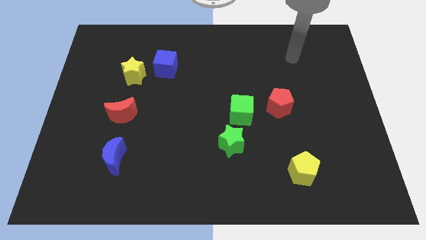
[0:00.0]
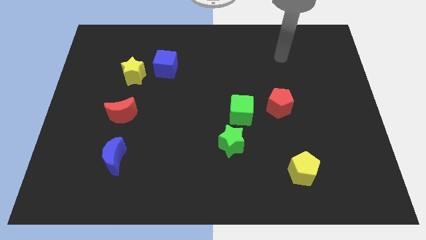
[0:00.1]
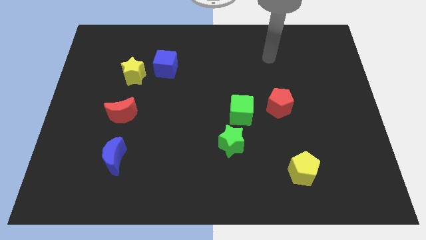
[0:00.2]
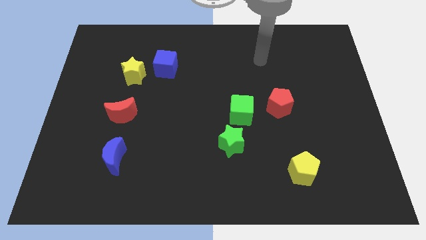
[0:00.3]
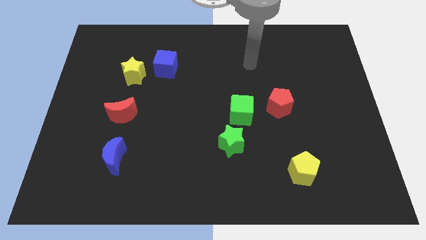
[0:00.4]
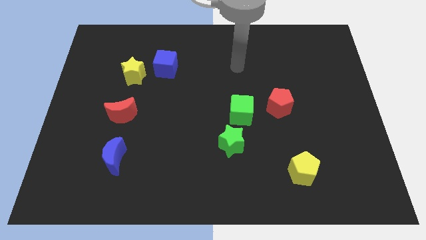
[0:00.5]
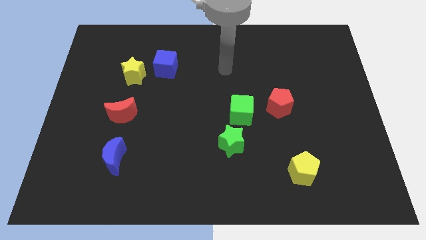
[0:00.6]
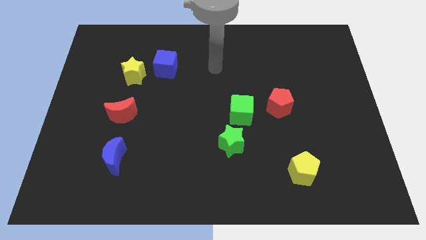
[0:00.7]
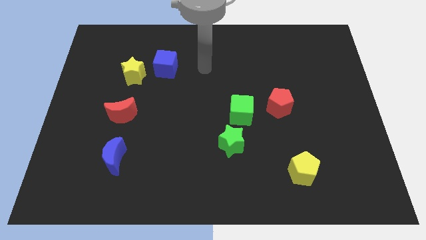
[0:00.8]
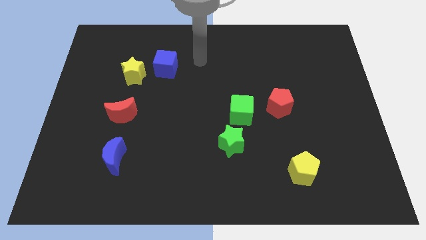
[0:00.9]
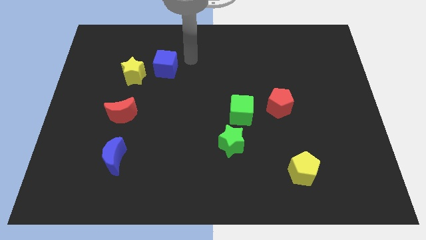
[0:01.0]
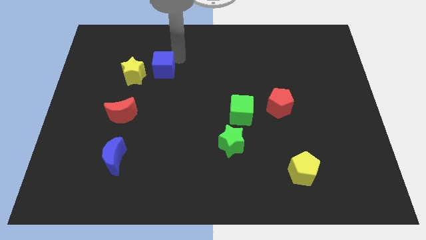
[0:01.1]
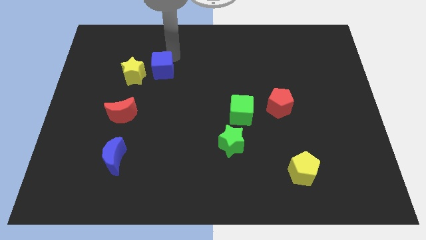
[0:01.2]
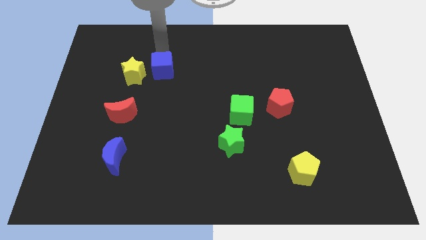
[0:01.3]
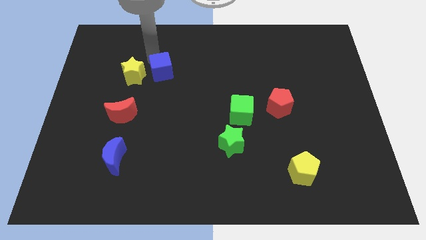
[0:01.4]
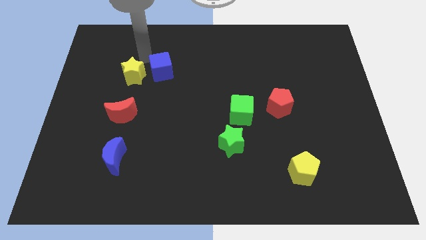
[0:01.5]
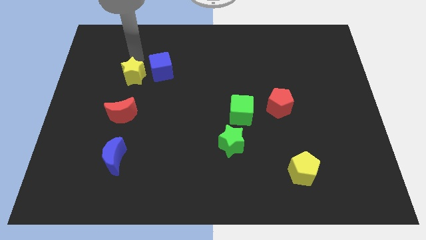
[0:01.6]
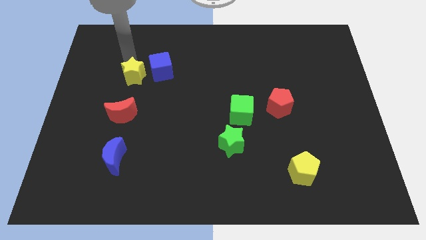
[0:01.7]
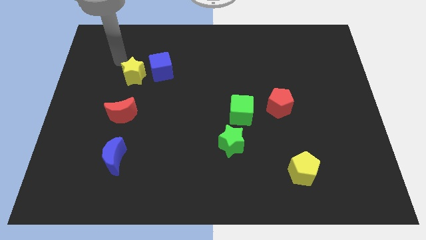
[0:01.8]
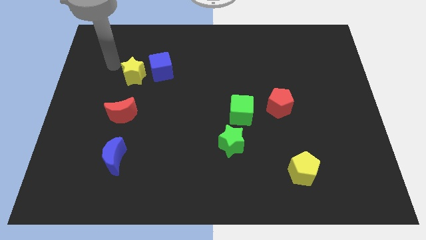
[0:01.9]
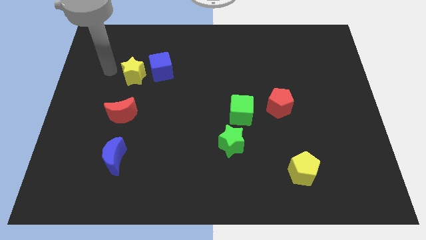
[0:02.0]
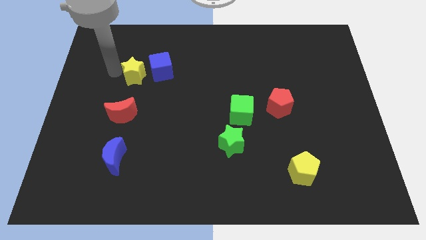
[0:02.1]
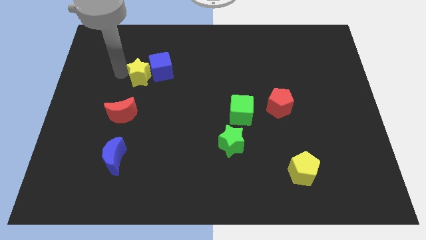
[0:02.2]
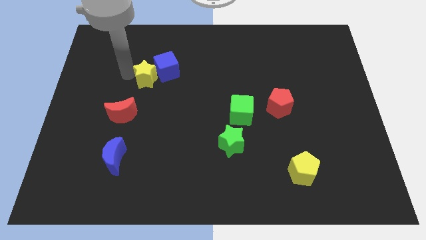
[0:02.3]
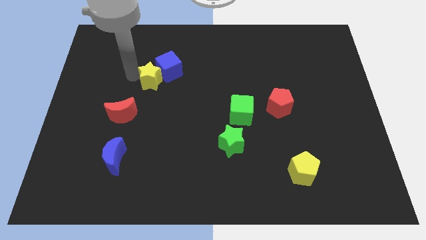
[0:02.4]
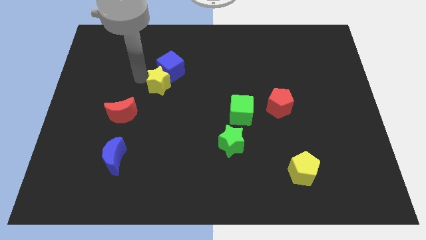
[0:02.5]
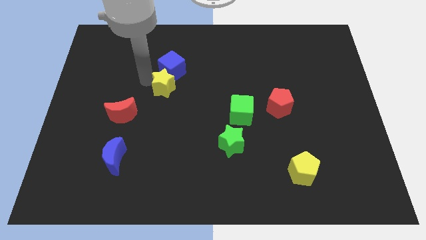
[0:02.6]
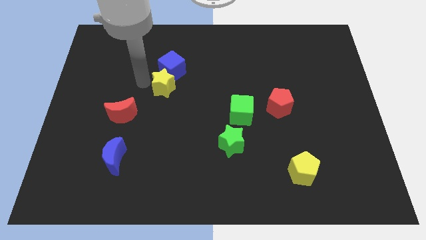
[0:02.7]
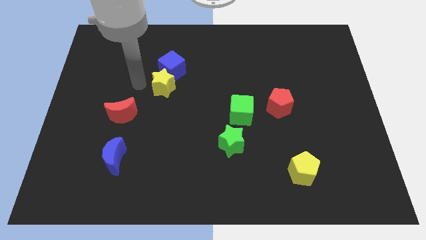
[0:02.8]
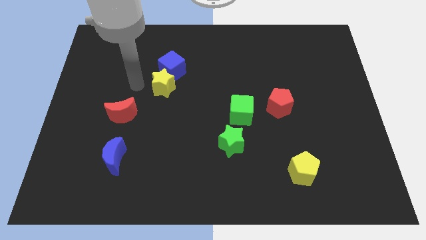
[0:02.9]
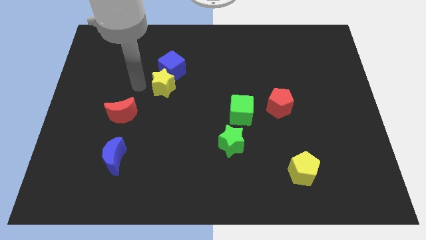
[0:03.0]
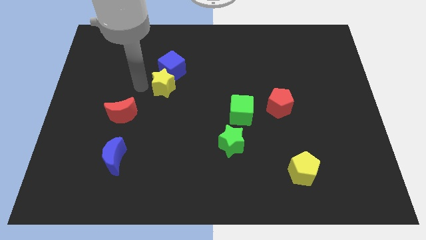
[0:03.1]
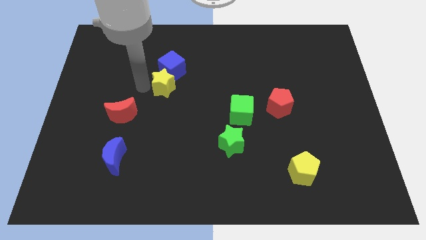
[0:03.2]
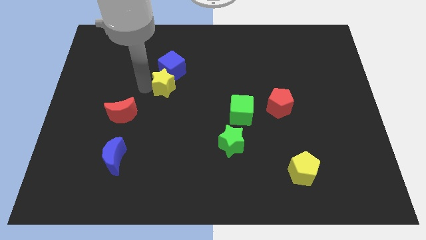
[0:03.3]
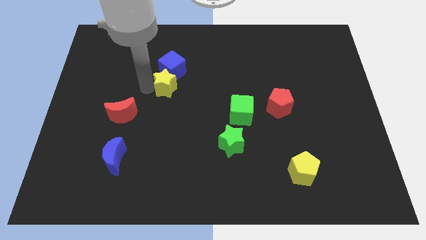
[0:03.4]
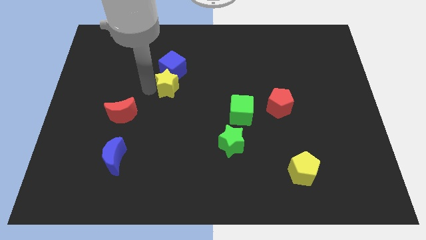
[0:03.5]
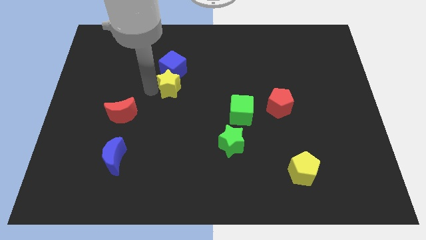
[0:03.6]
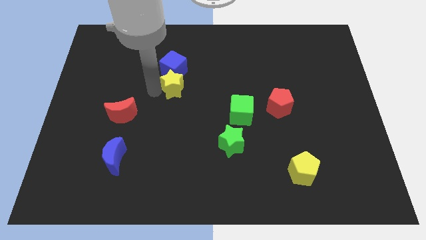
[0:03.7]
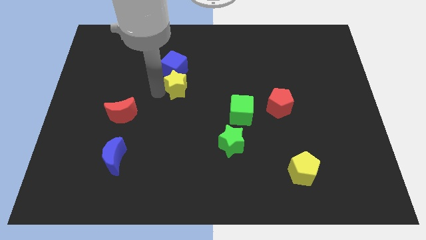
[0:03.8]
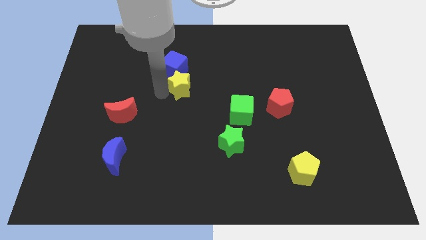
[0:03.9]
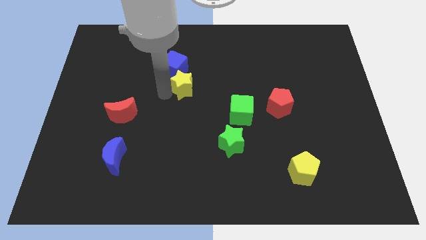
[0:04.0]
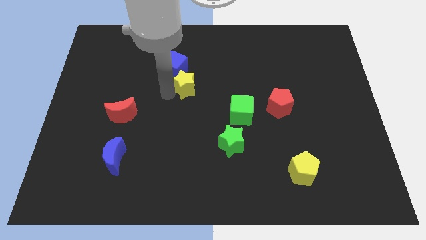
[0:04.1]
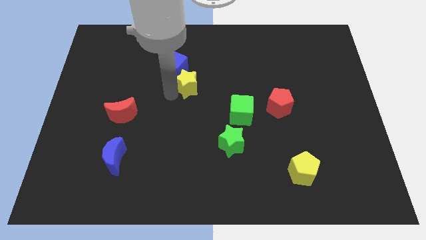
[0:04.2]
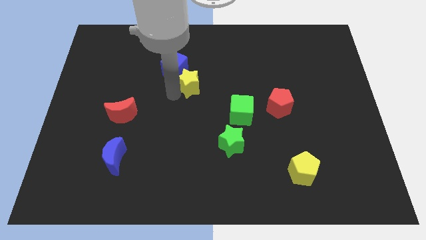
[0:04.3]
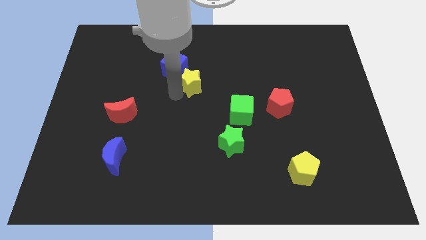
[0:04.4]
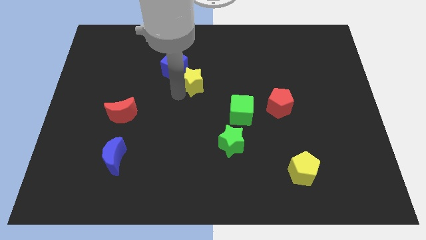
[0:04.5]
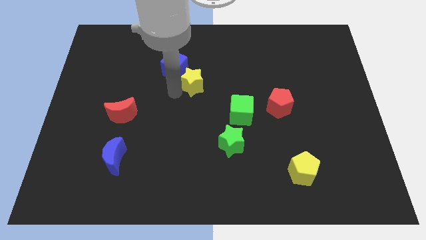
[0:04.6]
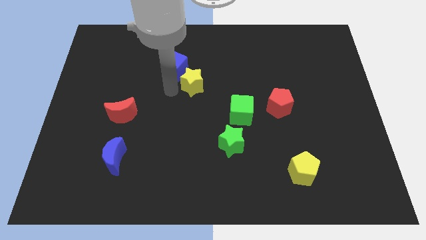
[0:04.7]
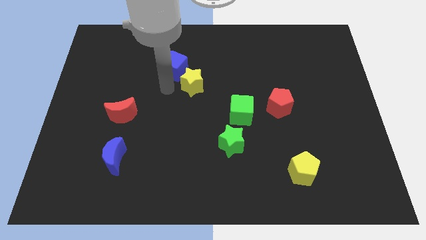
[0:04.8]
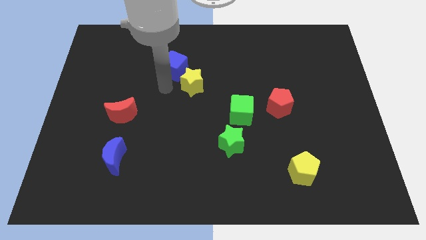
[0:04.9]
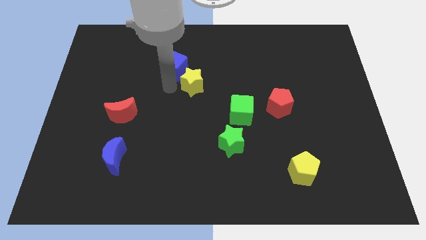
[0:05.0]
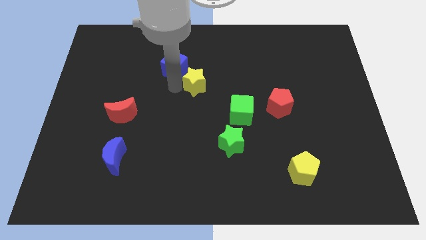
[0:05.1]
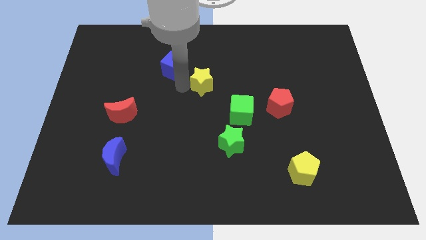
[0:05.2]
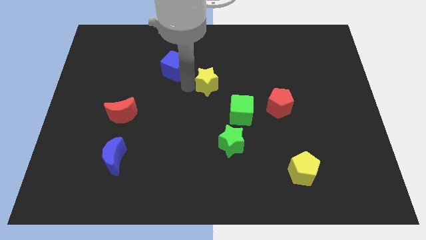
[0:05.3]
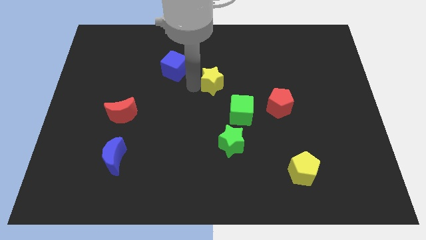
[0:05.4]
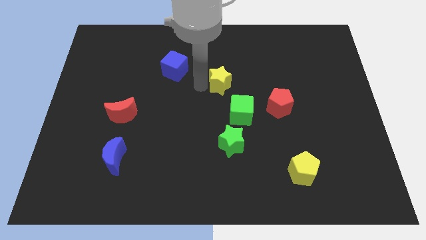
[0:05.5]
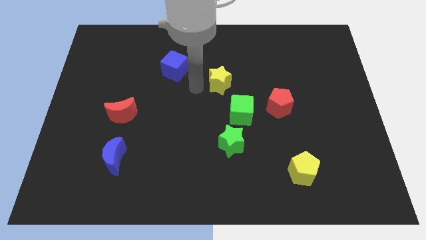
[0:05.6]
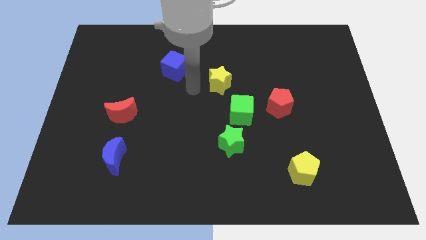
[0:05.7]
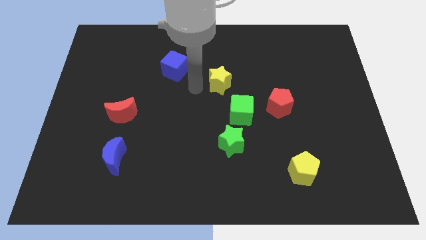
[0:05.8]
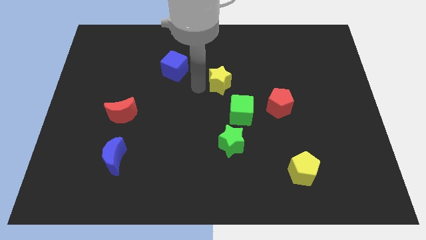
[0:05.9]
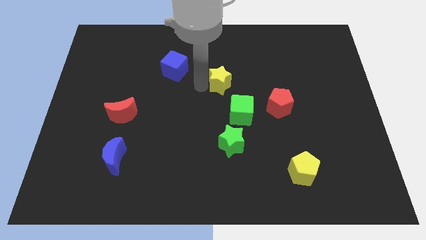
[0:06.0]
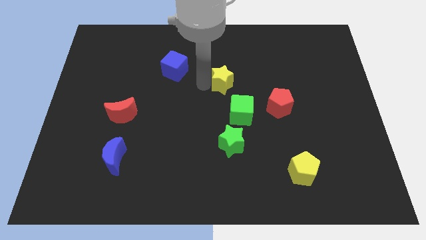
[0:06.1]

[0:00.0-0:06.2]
push the yellow star above the green cube

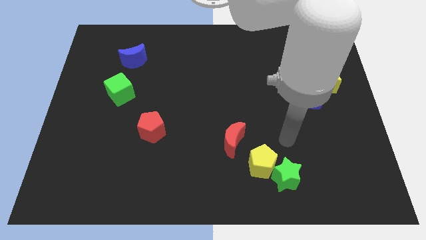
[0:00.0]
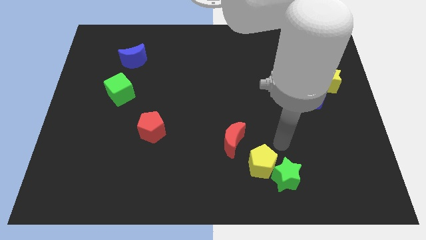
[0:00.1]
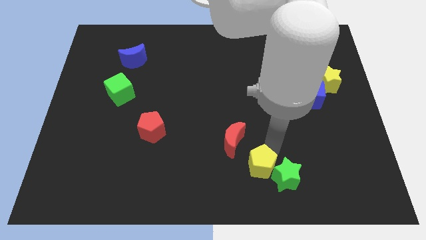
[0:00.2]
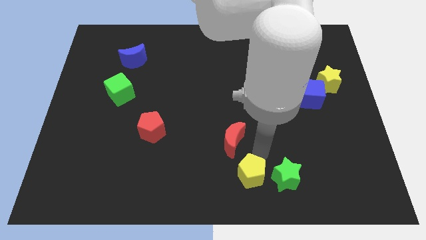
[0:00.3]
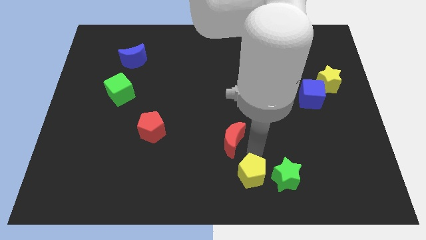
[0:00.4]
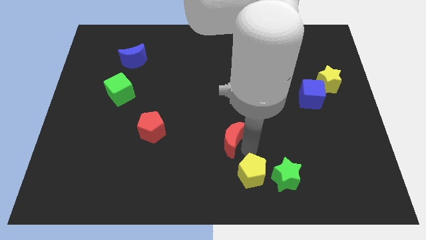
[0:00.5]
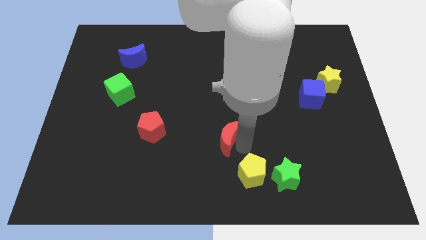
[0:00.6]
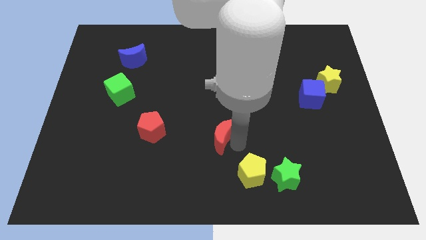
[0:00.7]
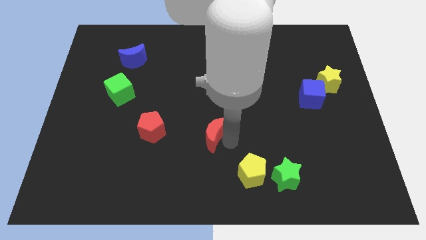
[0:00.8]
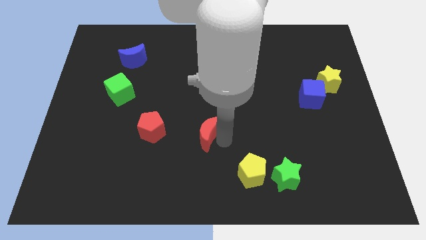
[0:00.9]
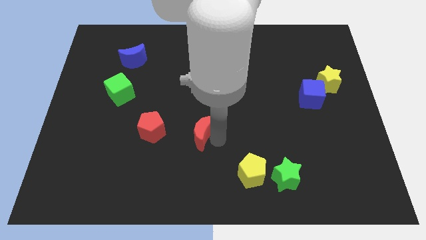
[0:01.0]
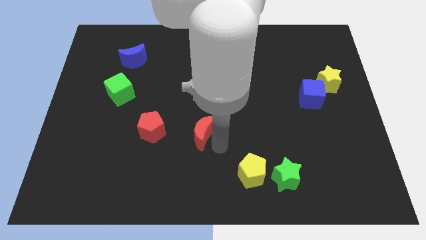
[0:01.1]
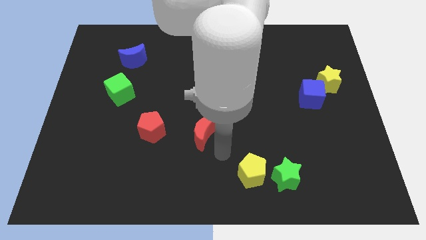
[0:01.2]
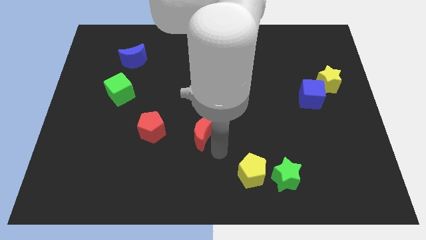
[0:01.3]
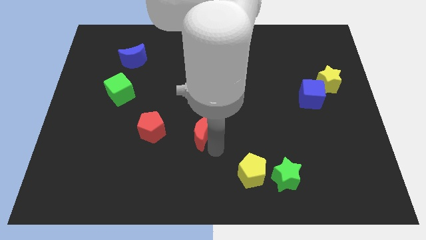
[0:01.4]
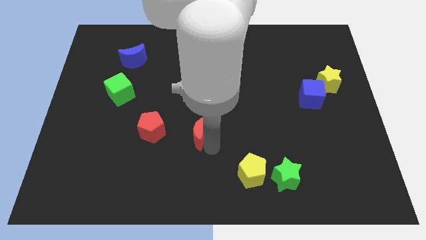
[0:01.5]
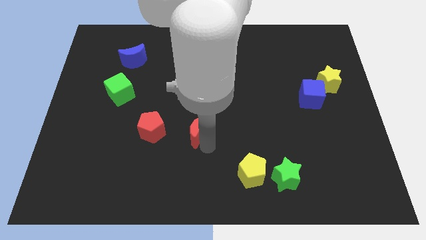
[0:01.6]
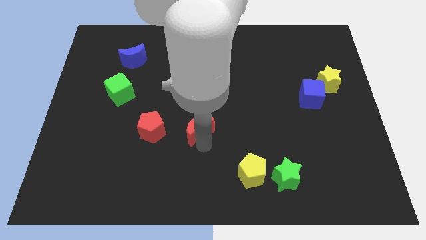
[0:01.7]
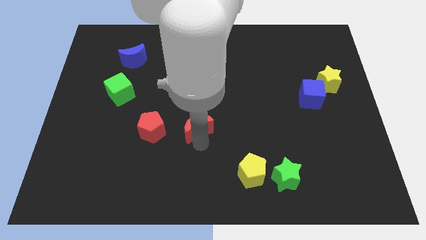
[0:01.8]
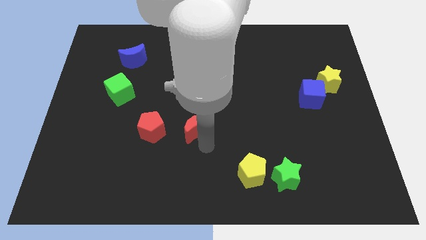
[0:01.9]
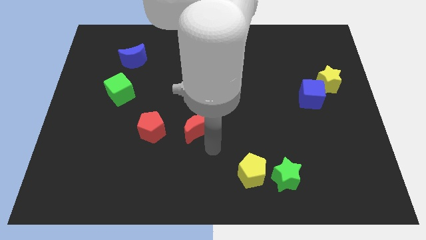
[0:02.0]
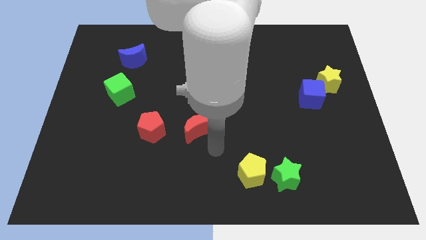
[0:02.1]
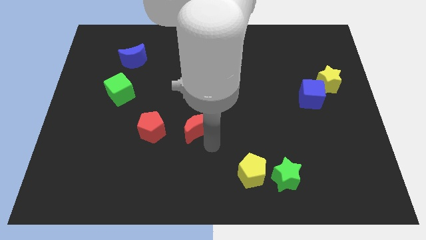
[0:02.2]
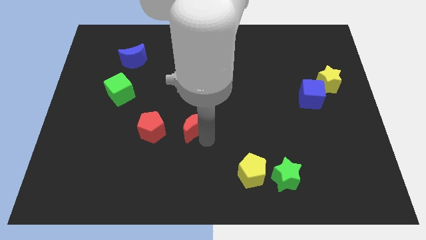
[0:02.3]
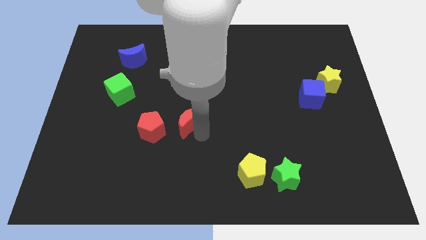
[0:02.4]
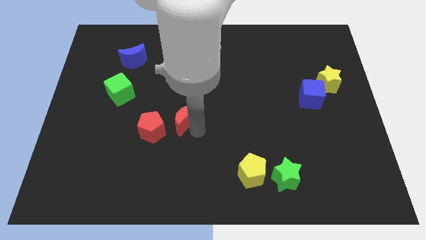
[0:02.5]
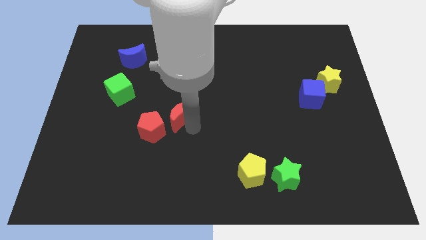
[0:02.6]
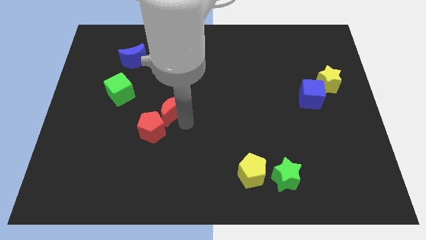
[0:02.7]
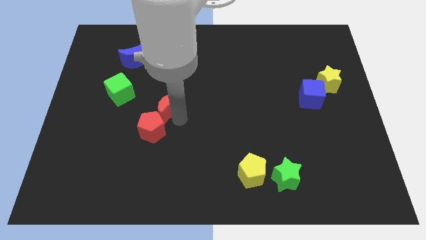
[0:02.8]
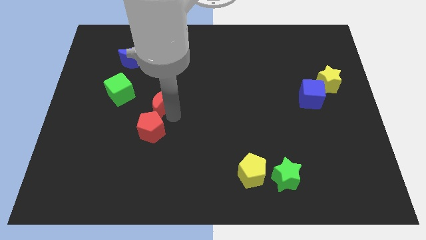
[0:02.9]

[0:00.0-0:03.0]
put the red moon right of the green cube
